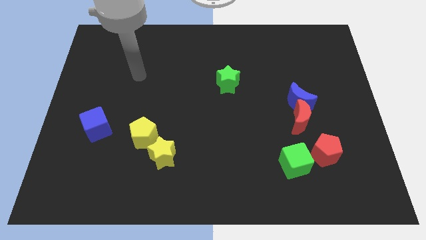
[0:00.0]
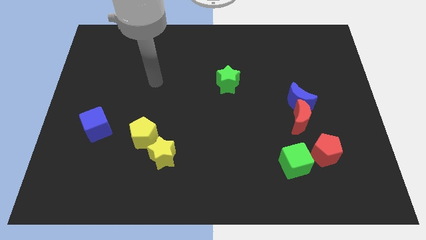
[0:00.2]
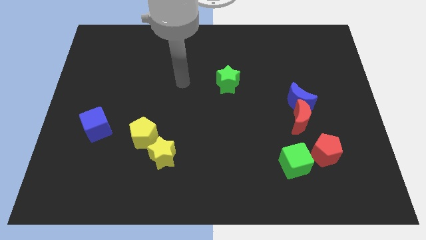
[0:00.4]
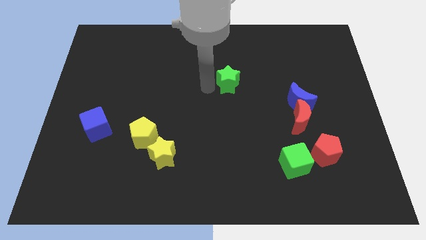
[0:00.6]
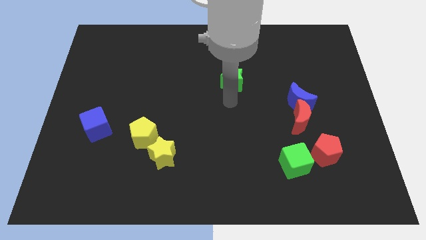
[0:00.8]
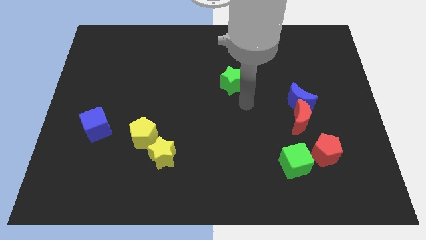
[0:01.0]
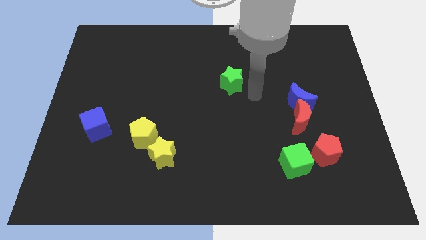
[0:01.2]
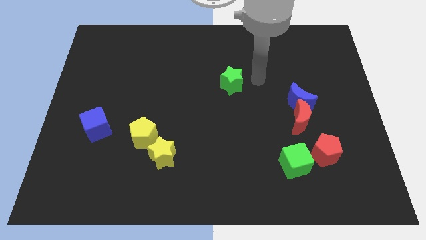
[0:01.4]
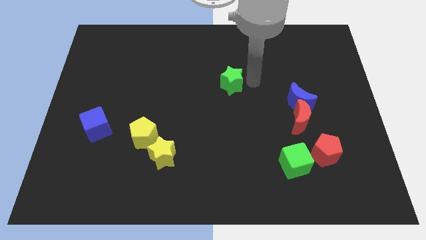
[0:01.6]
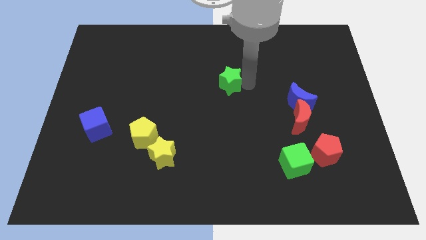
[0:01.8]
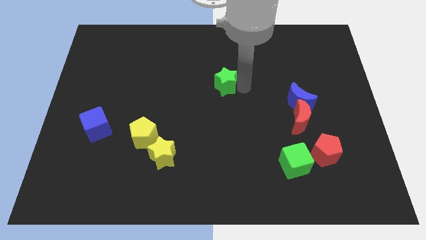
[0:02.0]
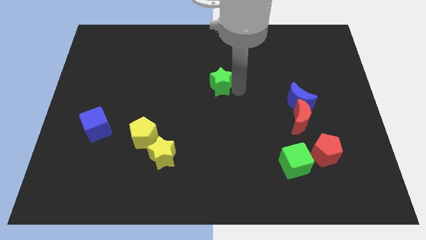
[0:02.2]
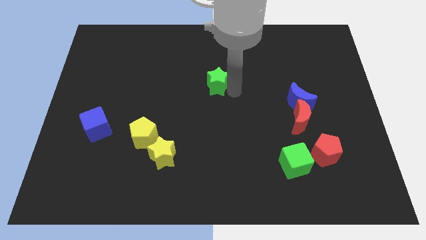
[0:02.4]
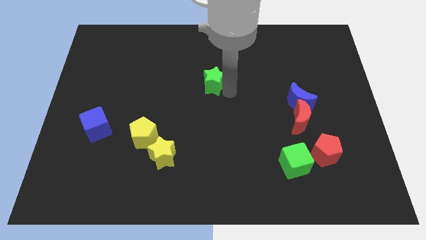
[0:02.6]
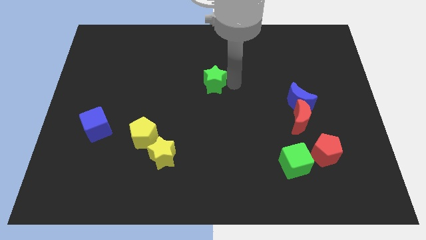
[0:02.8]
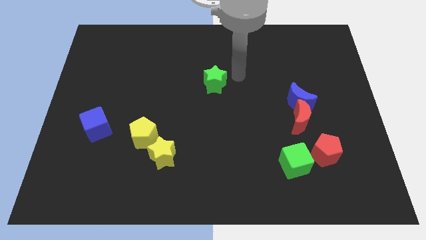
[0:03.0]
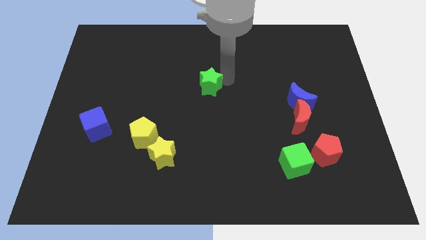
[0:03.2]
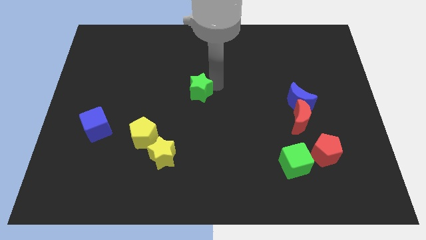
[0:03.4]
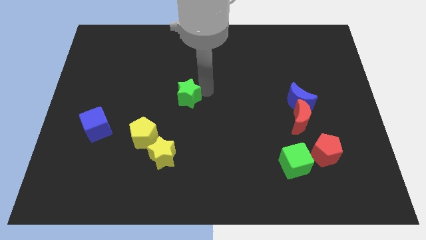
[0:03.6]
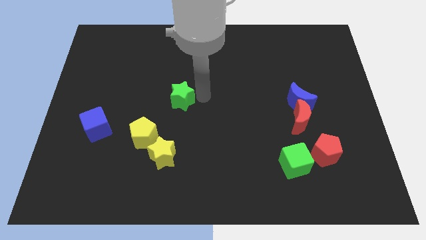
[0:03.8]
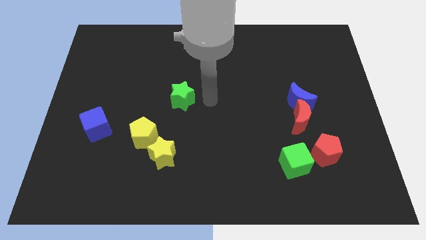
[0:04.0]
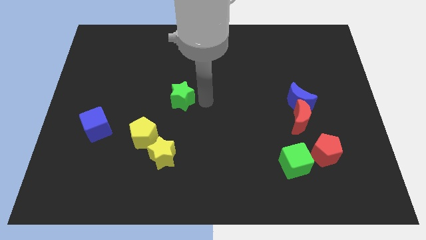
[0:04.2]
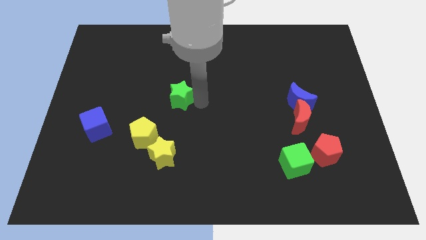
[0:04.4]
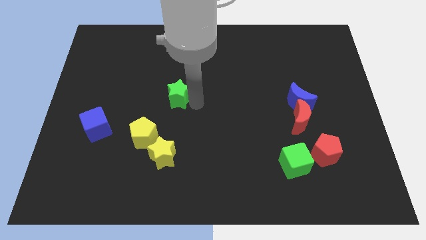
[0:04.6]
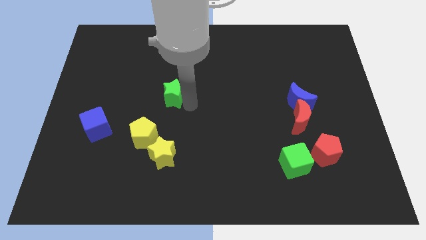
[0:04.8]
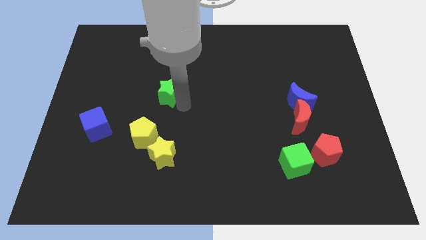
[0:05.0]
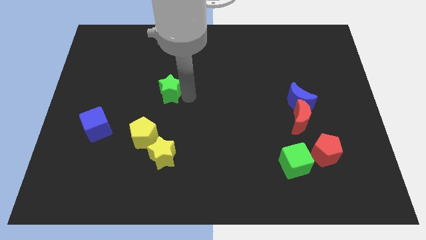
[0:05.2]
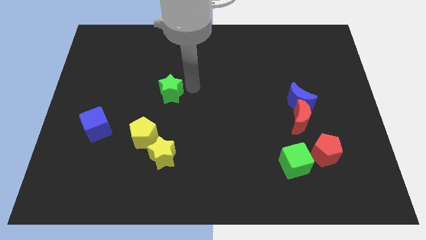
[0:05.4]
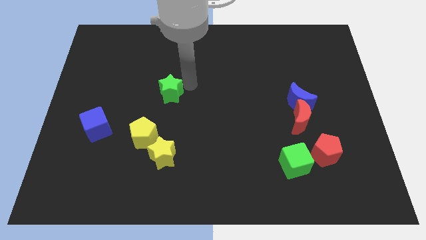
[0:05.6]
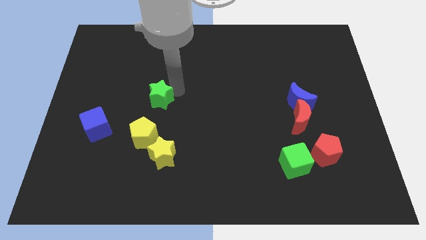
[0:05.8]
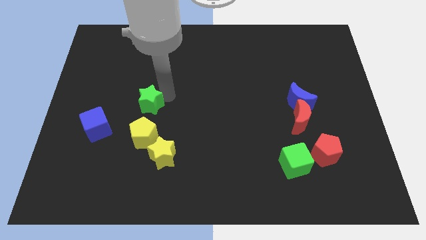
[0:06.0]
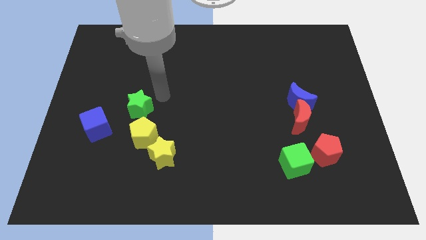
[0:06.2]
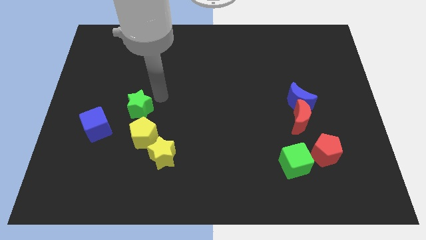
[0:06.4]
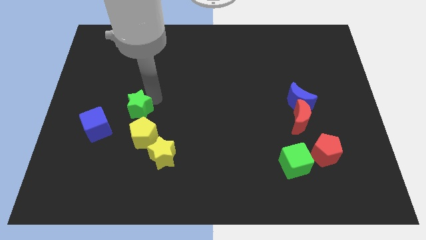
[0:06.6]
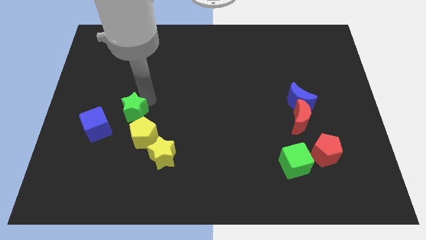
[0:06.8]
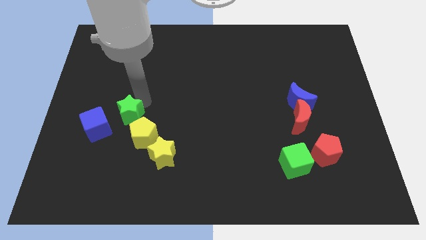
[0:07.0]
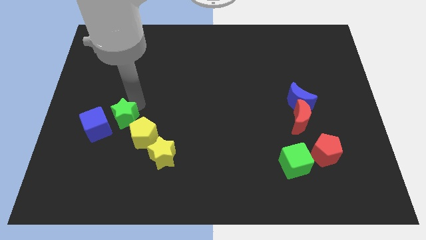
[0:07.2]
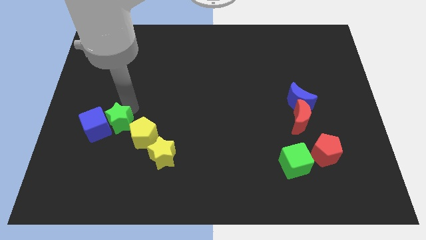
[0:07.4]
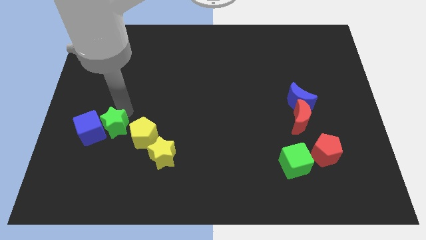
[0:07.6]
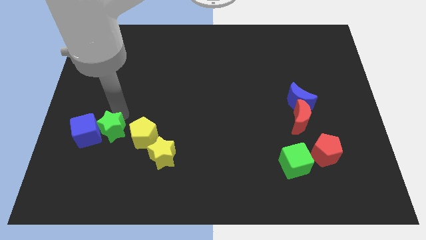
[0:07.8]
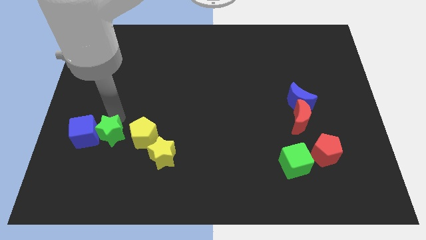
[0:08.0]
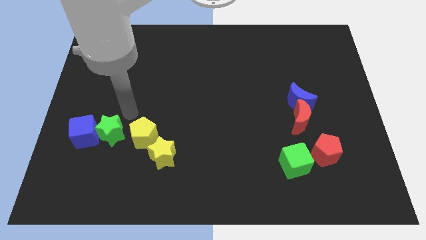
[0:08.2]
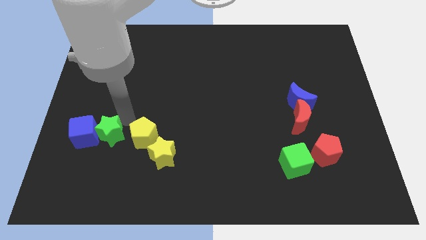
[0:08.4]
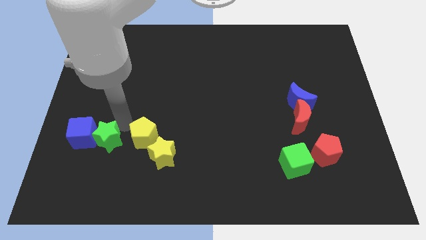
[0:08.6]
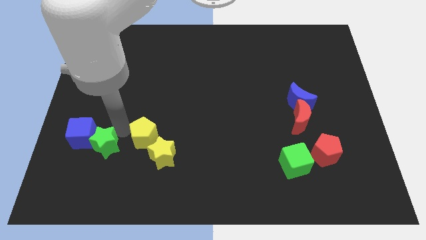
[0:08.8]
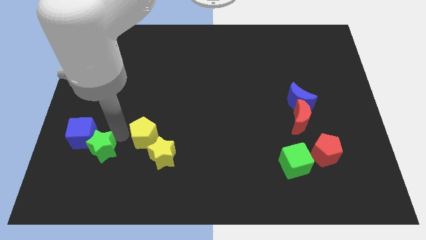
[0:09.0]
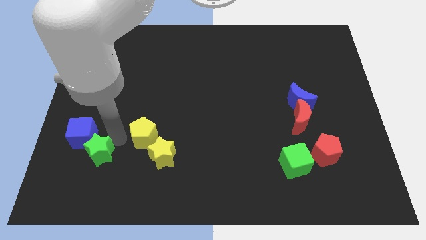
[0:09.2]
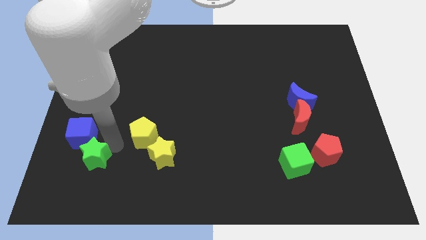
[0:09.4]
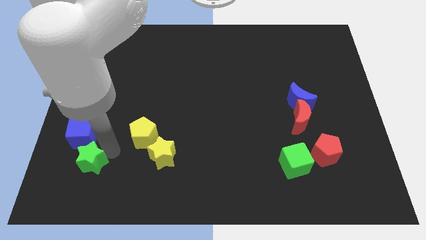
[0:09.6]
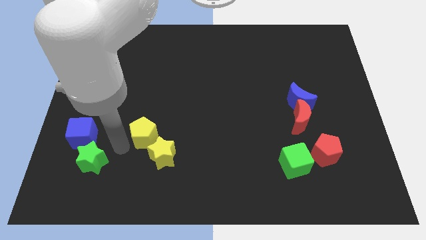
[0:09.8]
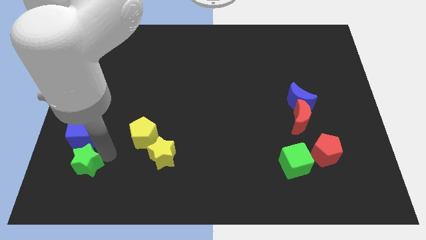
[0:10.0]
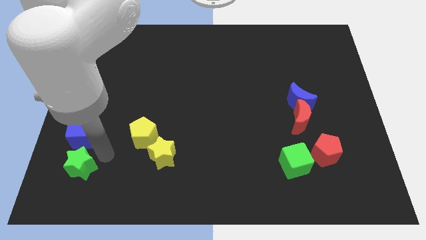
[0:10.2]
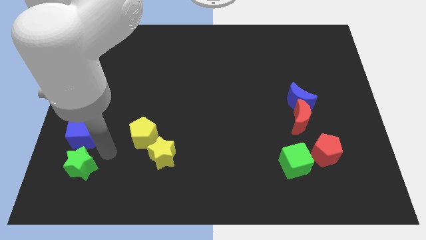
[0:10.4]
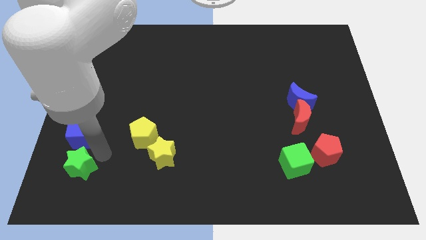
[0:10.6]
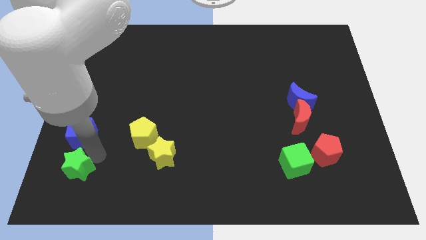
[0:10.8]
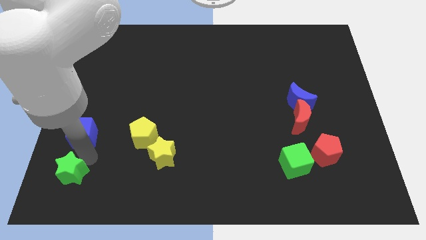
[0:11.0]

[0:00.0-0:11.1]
move the green star to the bottom left

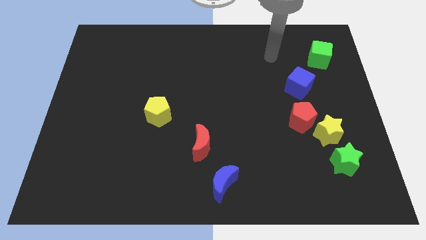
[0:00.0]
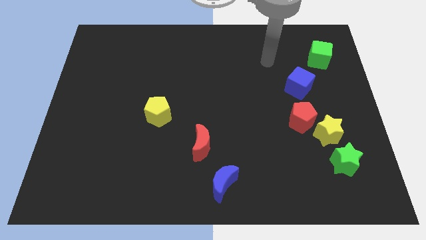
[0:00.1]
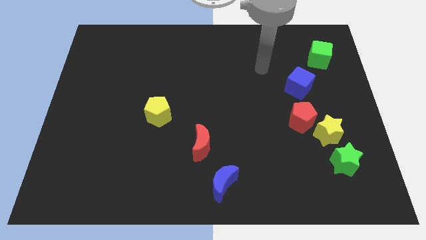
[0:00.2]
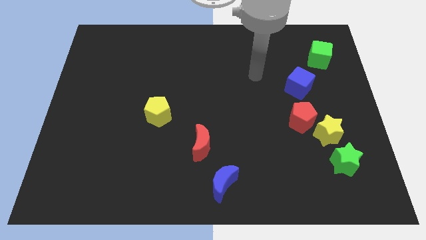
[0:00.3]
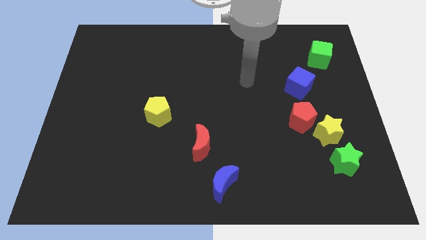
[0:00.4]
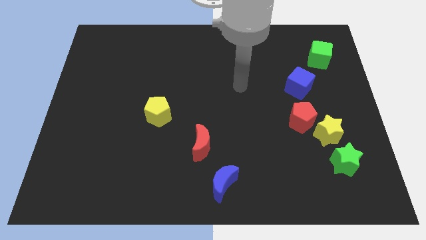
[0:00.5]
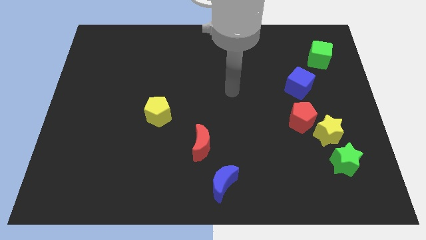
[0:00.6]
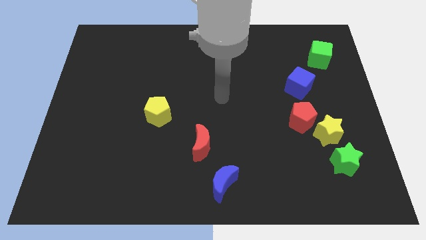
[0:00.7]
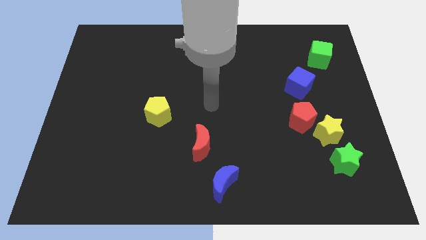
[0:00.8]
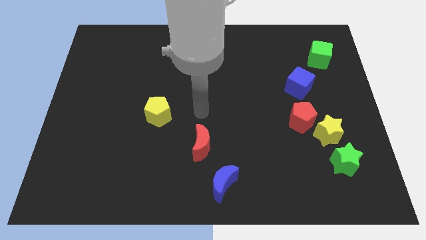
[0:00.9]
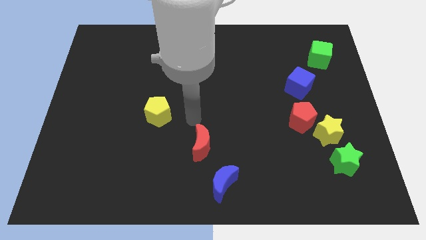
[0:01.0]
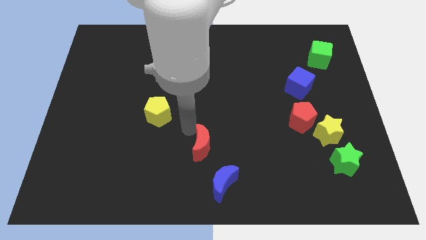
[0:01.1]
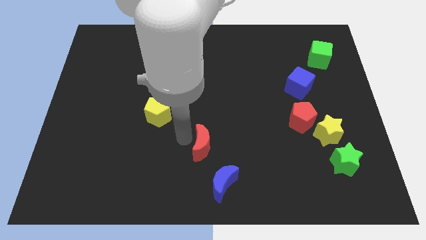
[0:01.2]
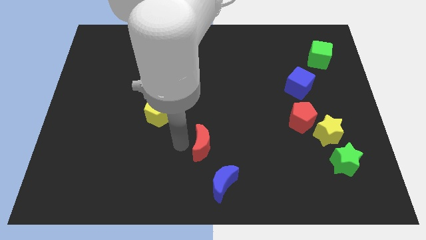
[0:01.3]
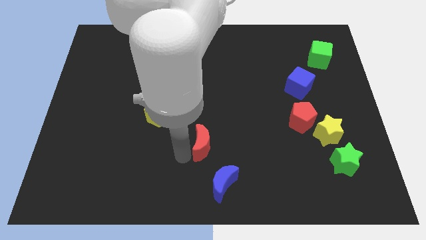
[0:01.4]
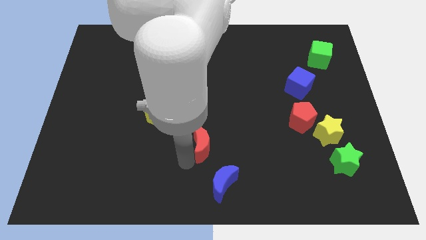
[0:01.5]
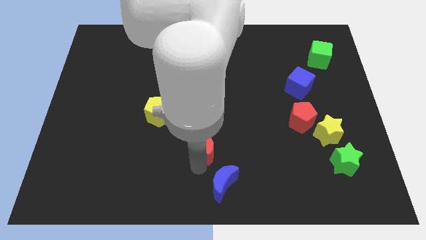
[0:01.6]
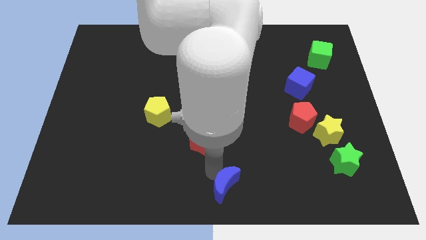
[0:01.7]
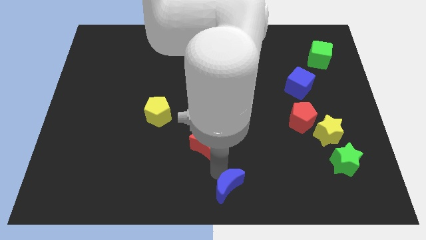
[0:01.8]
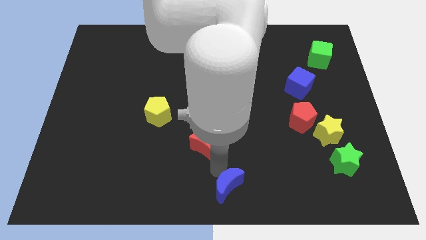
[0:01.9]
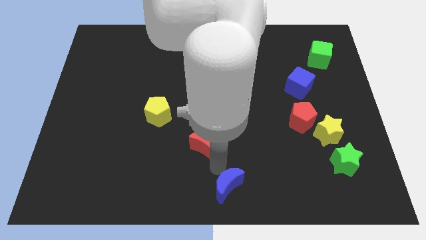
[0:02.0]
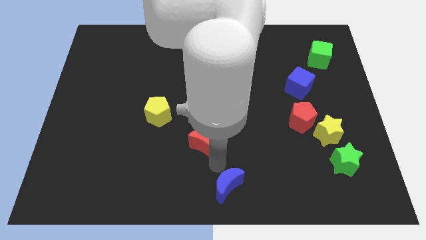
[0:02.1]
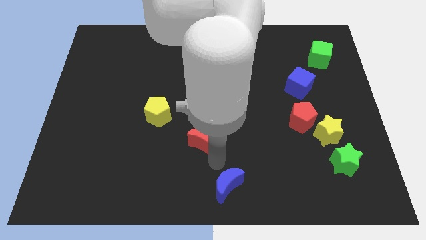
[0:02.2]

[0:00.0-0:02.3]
move the red moon to the center
